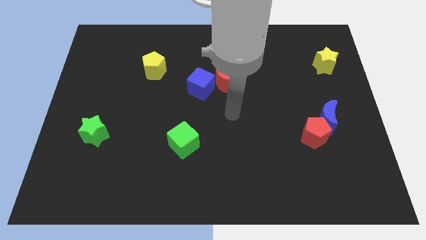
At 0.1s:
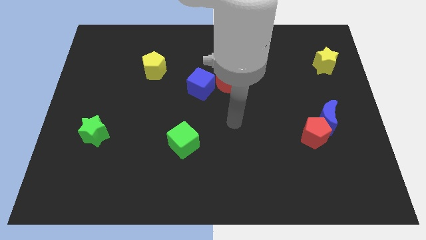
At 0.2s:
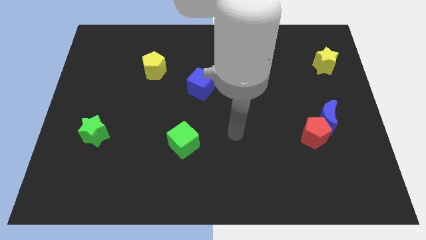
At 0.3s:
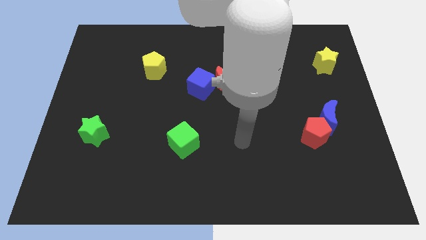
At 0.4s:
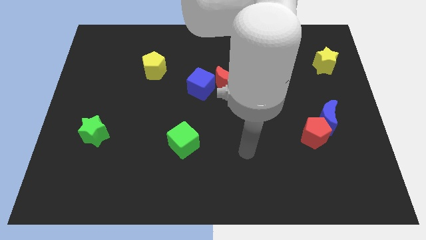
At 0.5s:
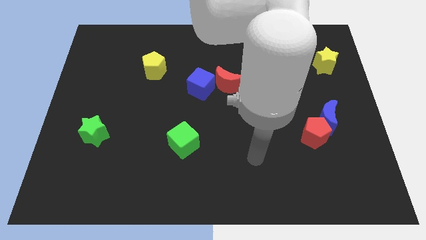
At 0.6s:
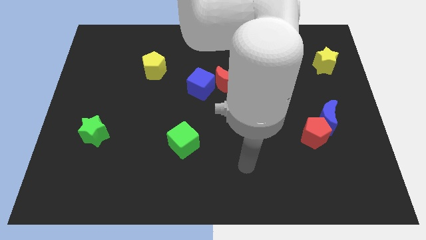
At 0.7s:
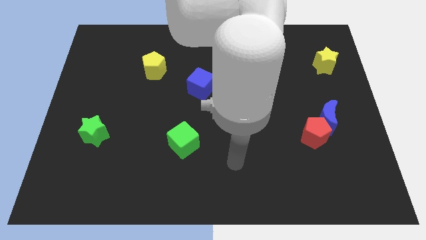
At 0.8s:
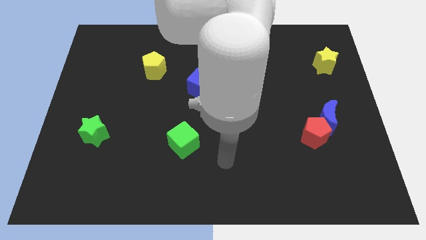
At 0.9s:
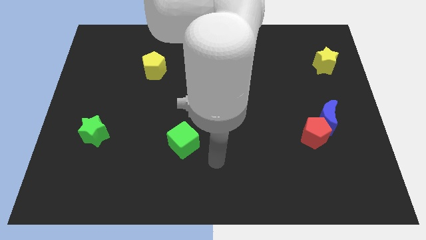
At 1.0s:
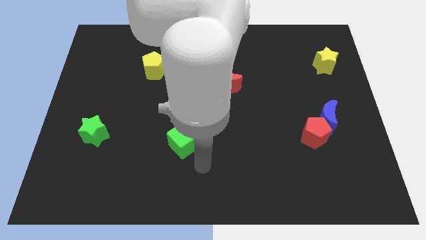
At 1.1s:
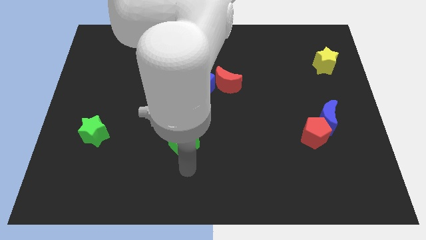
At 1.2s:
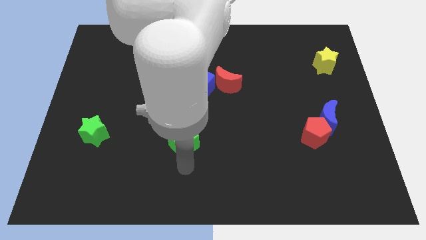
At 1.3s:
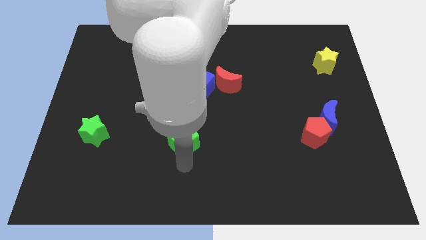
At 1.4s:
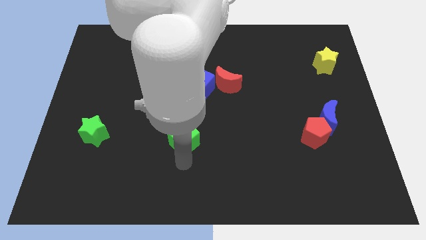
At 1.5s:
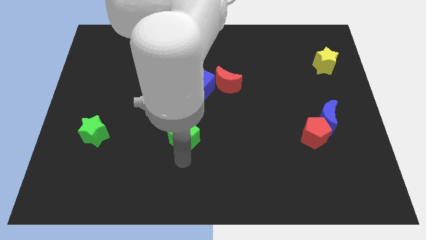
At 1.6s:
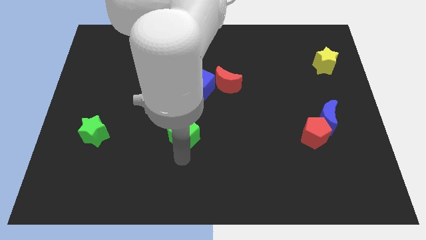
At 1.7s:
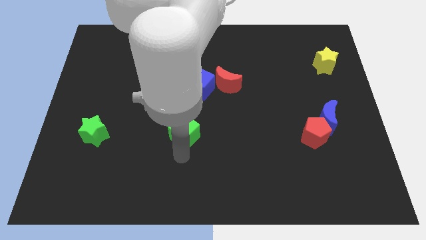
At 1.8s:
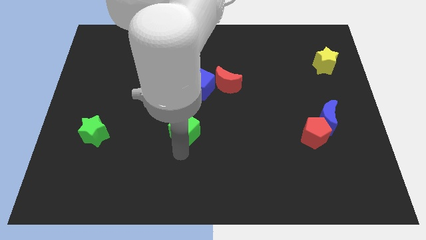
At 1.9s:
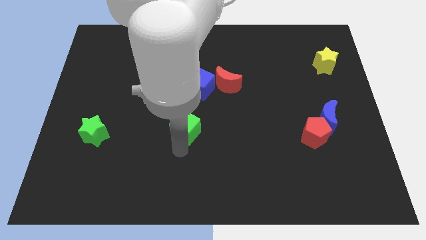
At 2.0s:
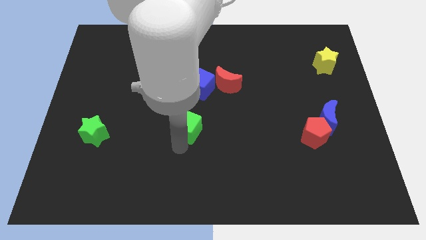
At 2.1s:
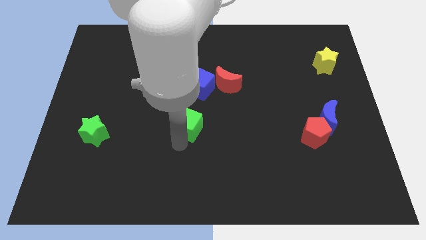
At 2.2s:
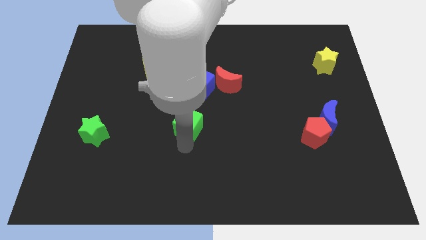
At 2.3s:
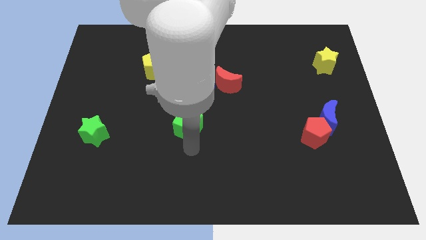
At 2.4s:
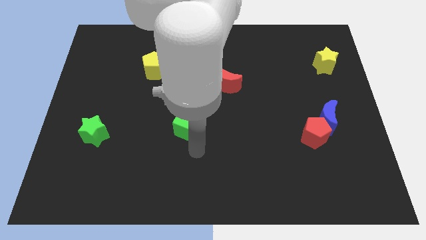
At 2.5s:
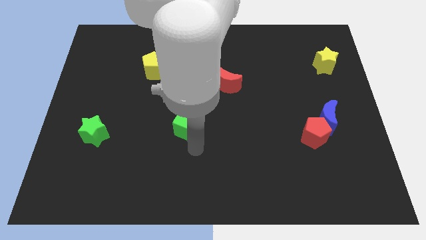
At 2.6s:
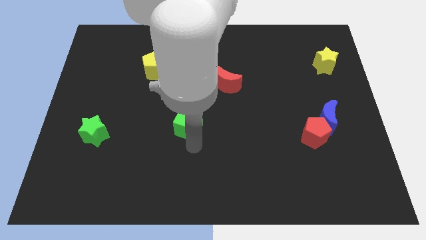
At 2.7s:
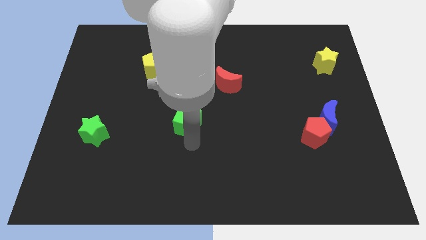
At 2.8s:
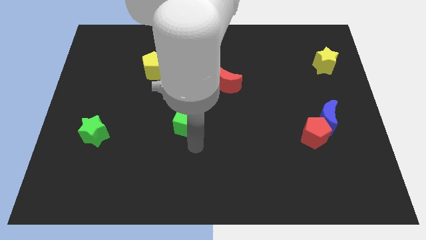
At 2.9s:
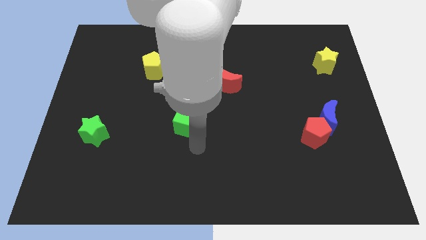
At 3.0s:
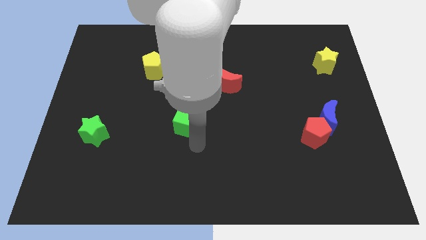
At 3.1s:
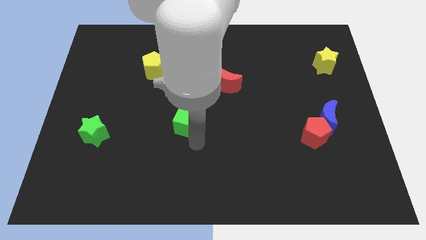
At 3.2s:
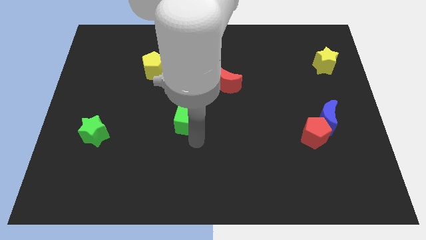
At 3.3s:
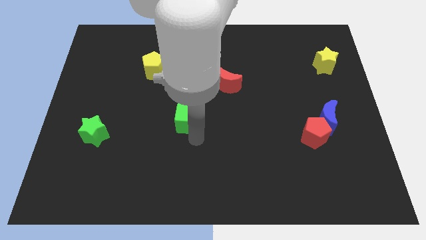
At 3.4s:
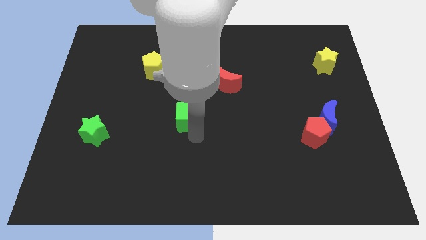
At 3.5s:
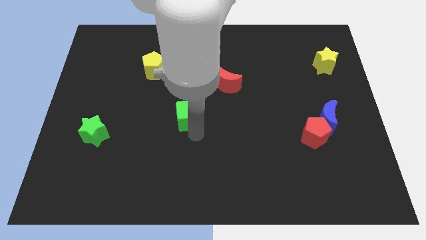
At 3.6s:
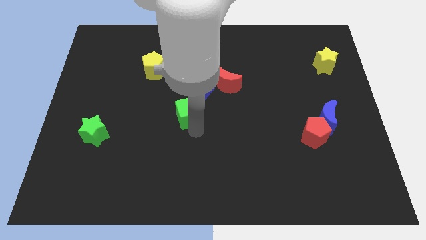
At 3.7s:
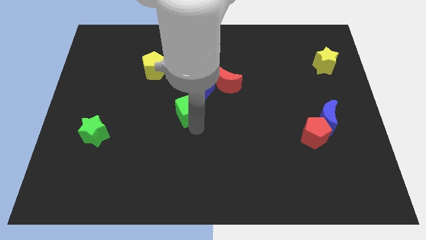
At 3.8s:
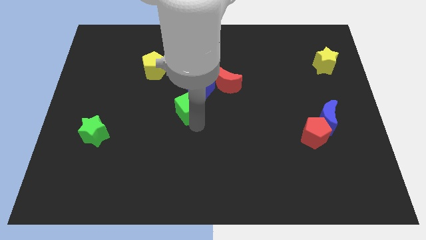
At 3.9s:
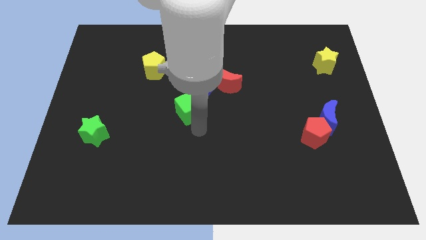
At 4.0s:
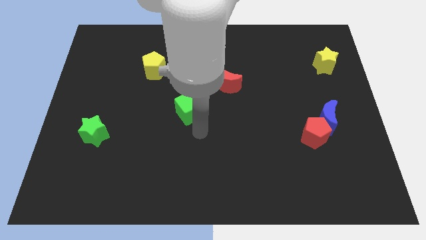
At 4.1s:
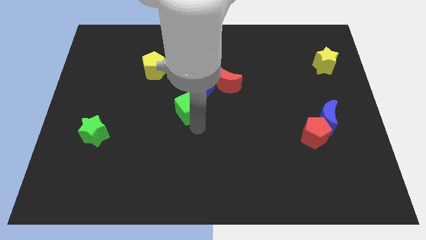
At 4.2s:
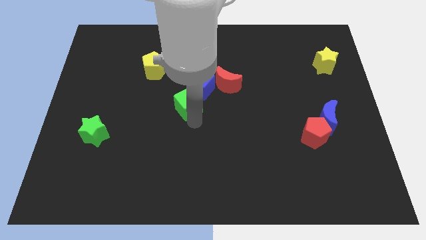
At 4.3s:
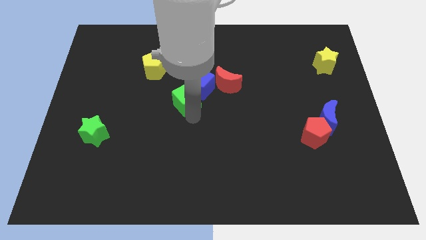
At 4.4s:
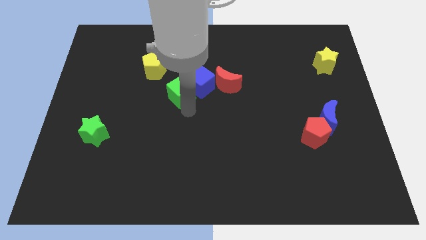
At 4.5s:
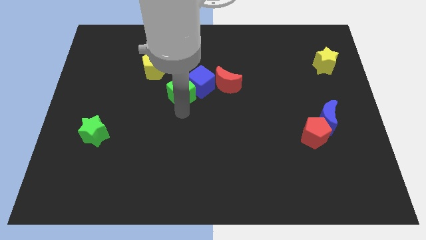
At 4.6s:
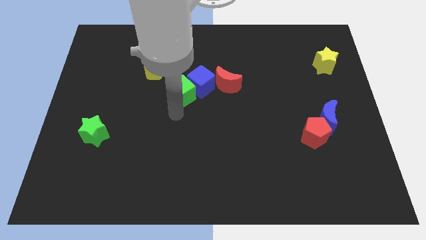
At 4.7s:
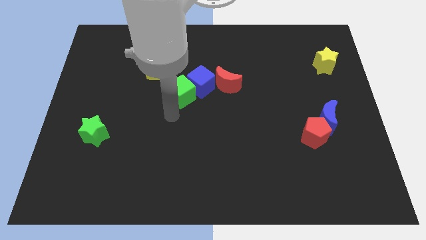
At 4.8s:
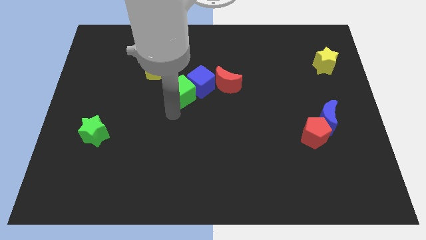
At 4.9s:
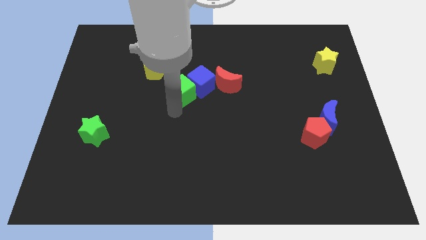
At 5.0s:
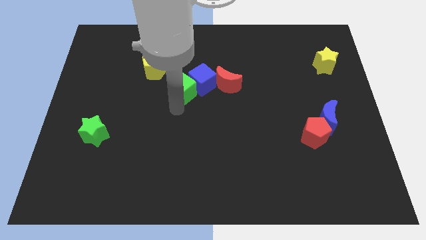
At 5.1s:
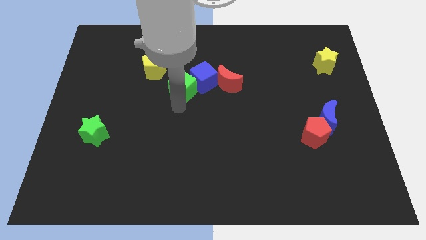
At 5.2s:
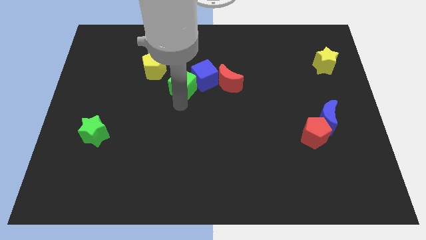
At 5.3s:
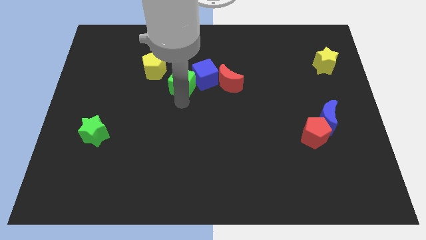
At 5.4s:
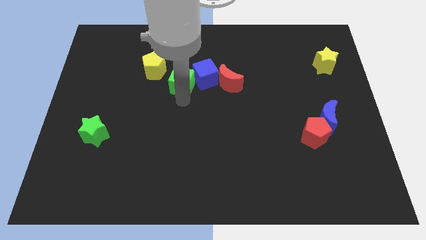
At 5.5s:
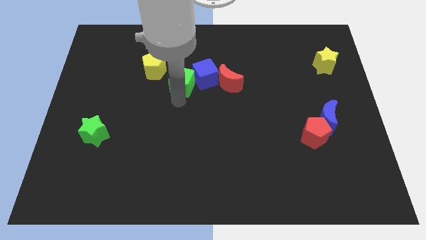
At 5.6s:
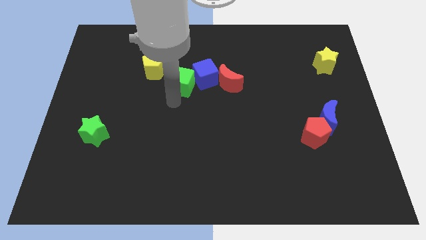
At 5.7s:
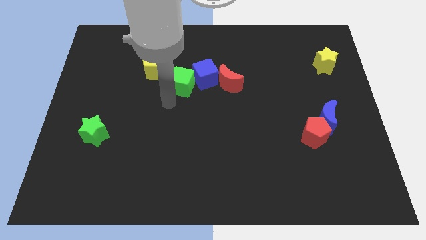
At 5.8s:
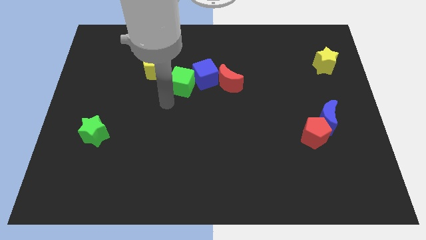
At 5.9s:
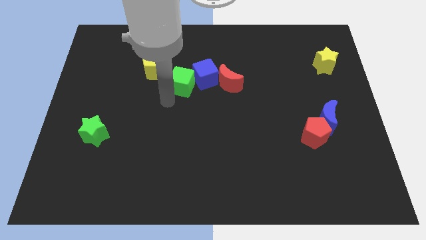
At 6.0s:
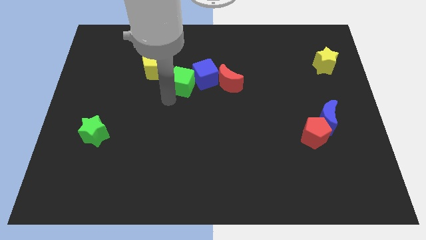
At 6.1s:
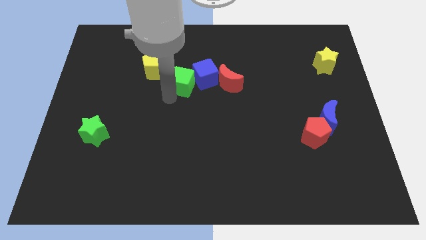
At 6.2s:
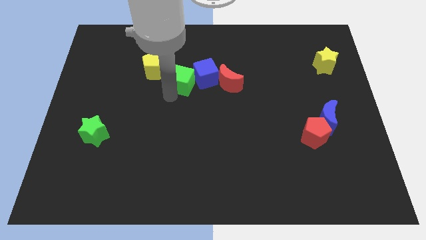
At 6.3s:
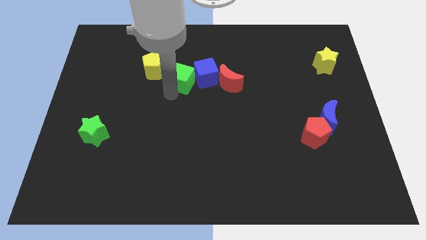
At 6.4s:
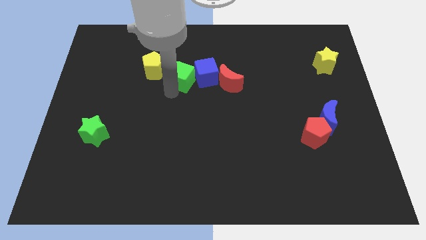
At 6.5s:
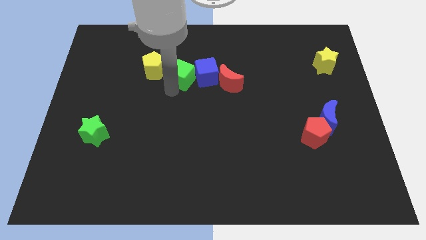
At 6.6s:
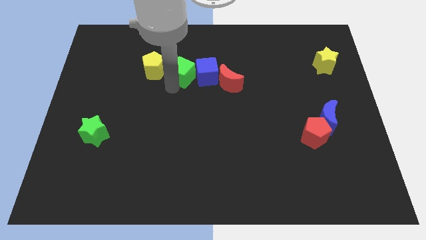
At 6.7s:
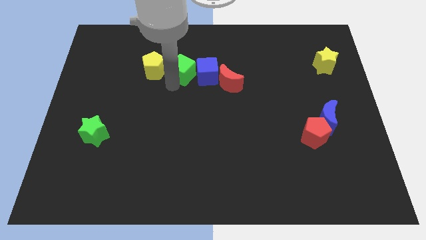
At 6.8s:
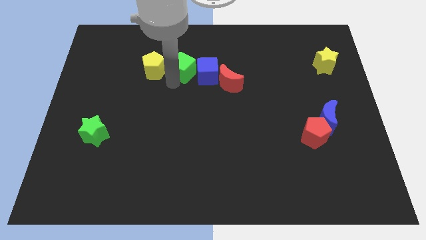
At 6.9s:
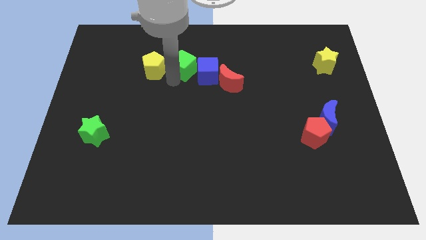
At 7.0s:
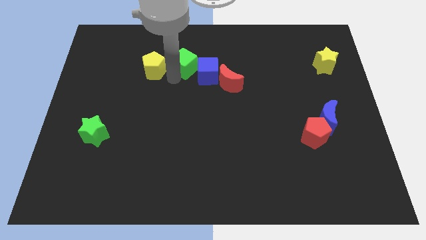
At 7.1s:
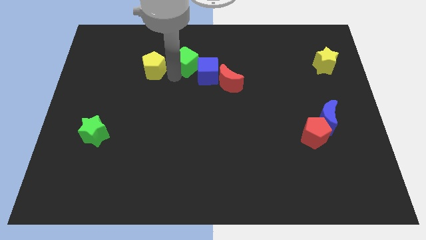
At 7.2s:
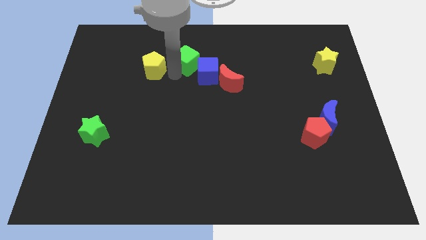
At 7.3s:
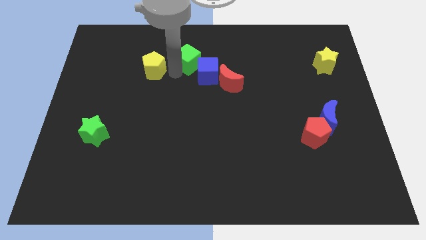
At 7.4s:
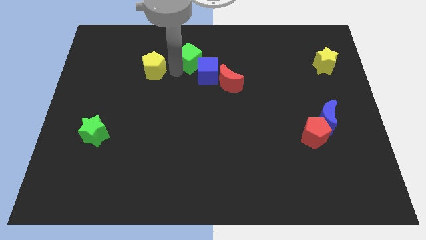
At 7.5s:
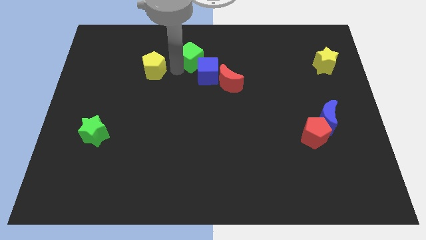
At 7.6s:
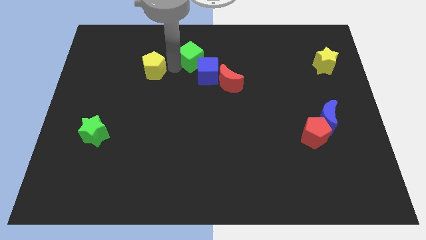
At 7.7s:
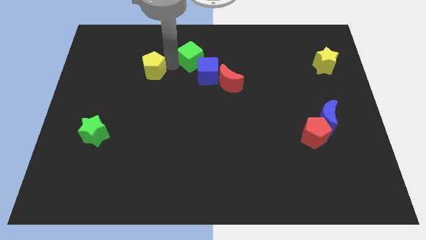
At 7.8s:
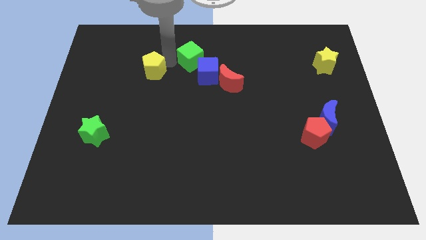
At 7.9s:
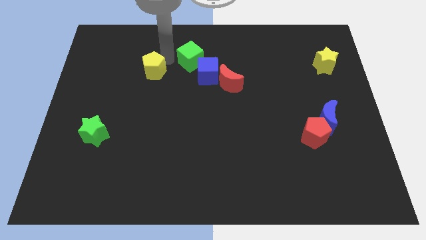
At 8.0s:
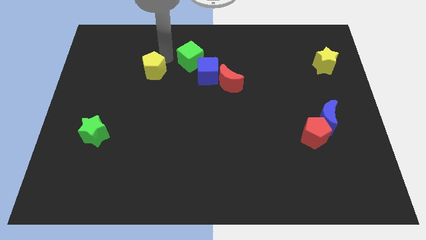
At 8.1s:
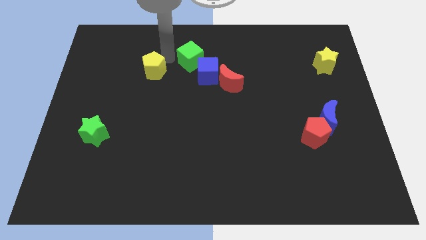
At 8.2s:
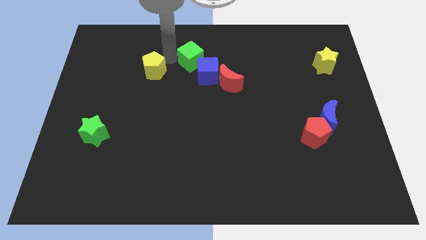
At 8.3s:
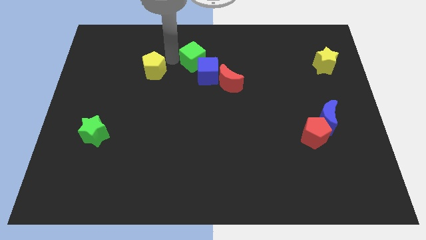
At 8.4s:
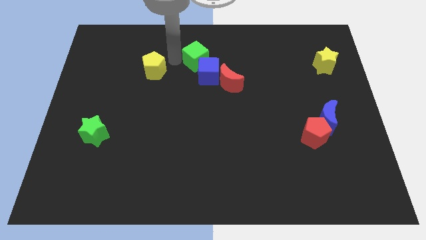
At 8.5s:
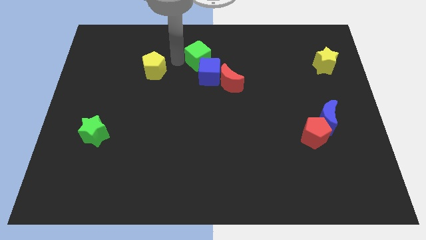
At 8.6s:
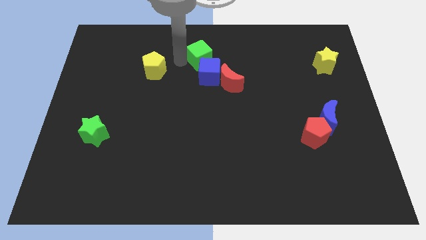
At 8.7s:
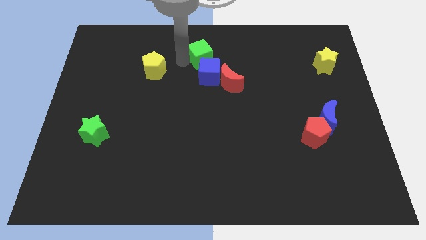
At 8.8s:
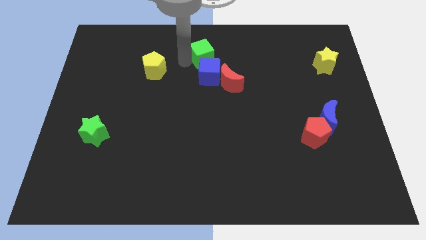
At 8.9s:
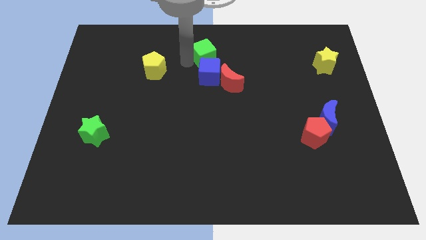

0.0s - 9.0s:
move the green cube to the top
